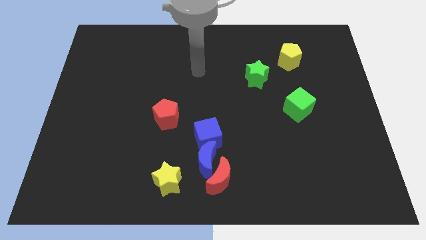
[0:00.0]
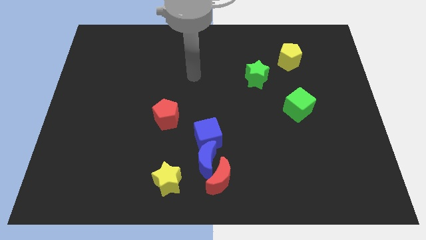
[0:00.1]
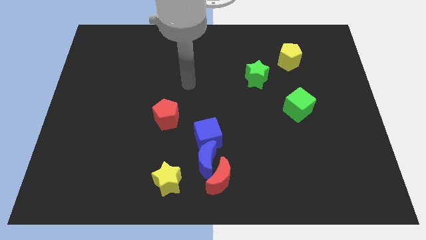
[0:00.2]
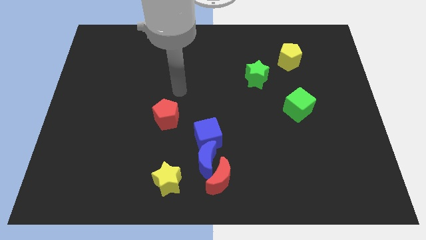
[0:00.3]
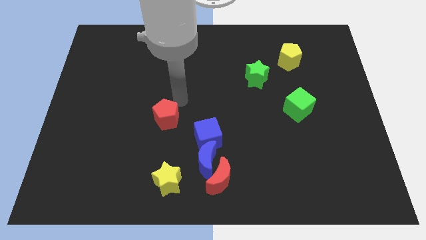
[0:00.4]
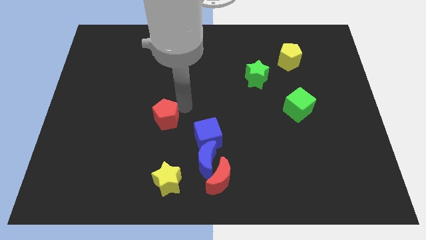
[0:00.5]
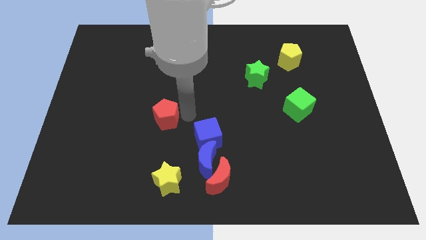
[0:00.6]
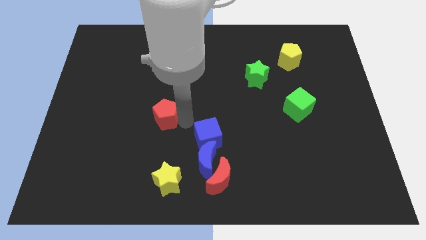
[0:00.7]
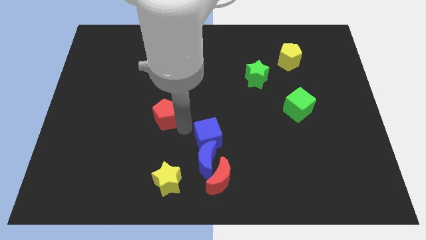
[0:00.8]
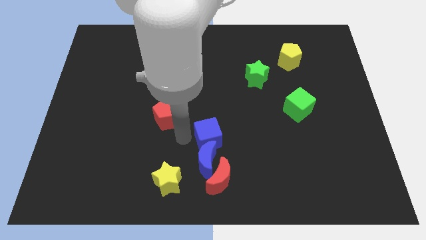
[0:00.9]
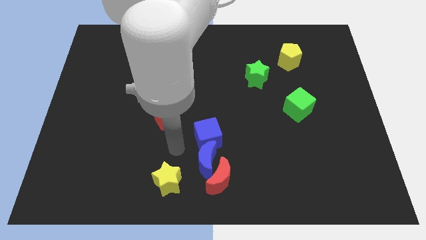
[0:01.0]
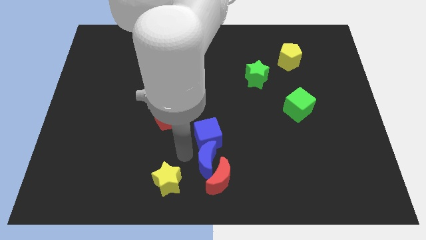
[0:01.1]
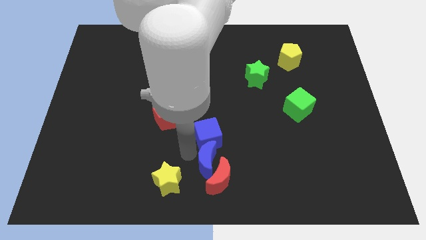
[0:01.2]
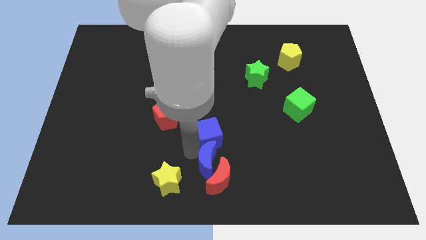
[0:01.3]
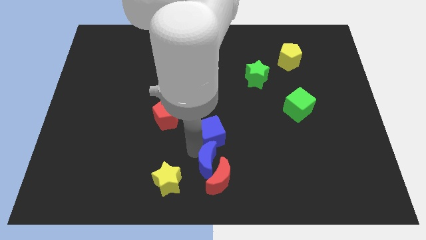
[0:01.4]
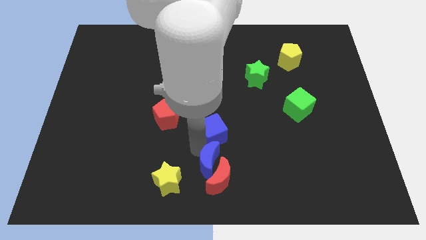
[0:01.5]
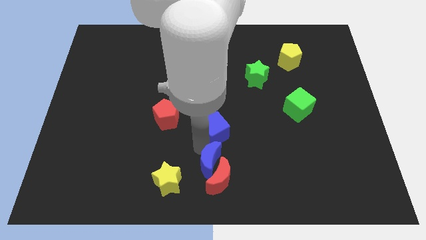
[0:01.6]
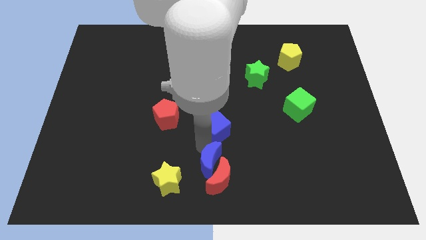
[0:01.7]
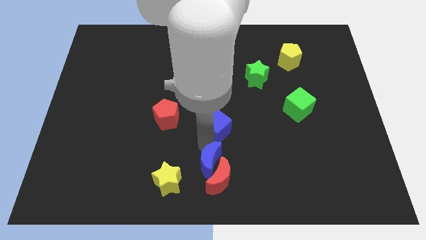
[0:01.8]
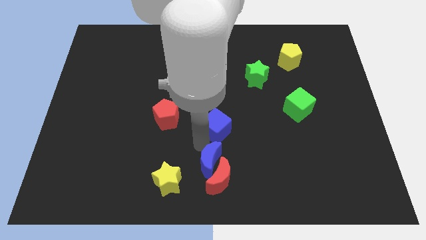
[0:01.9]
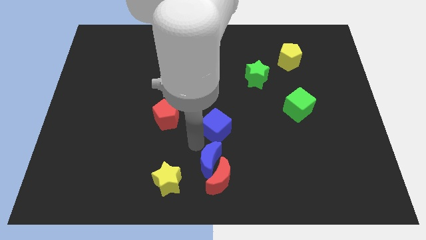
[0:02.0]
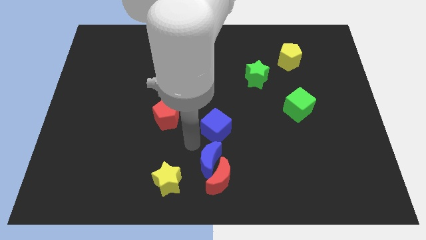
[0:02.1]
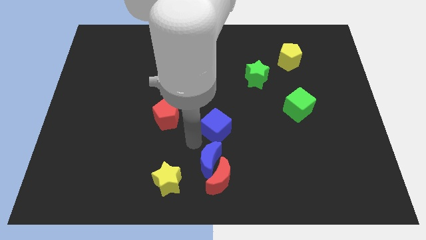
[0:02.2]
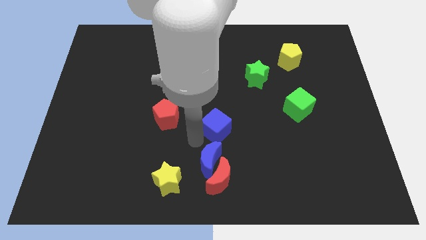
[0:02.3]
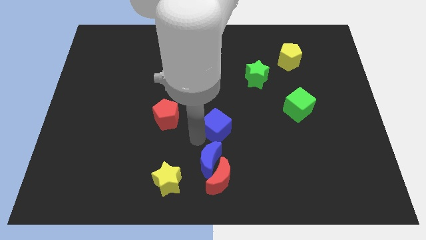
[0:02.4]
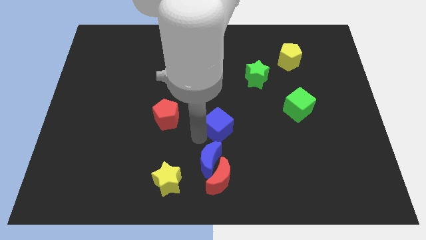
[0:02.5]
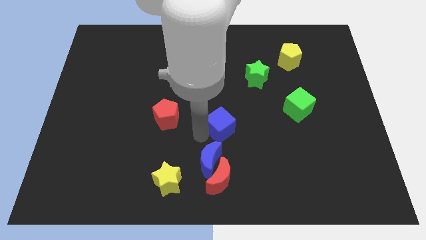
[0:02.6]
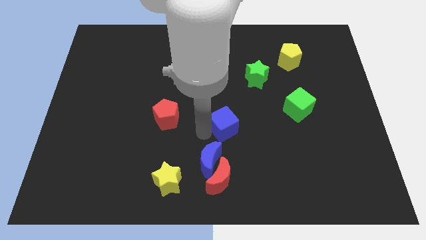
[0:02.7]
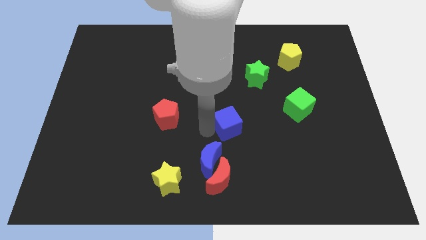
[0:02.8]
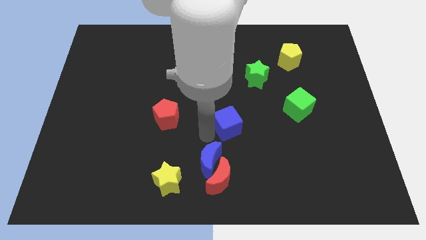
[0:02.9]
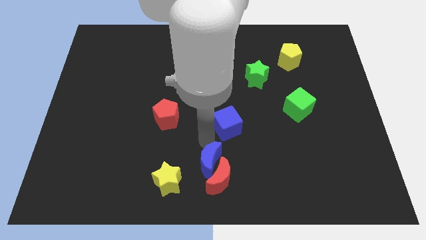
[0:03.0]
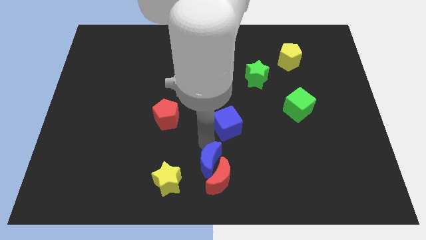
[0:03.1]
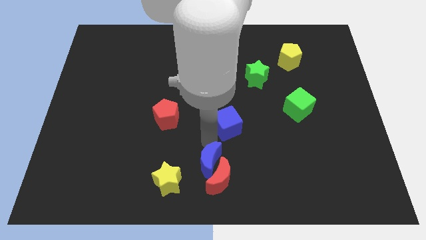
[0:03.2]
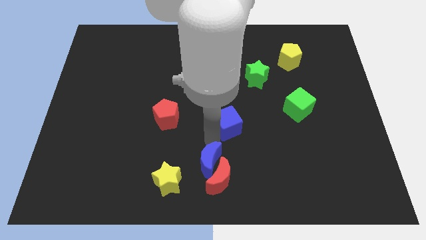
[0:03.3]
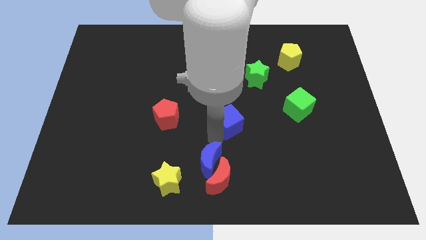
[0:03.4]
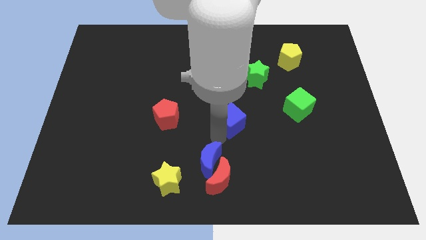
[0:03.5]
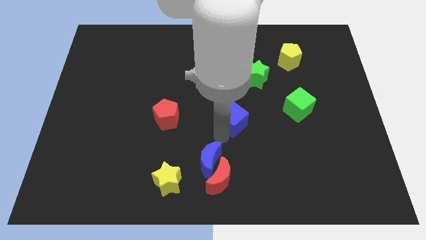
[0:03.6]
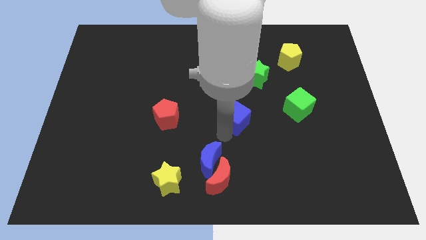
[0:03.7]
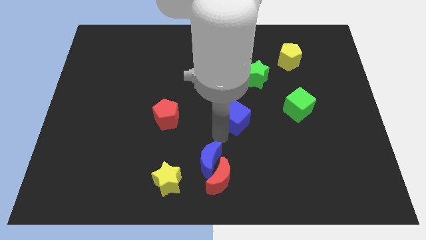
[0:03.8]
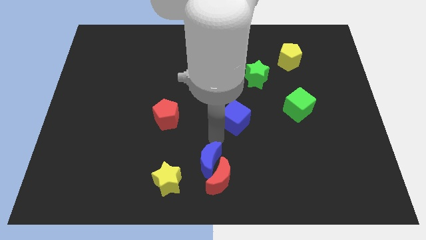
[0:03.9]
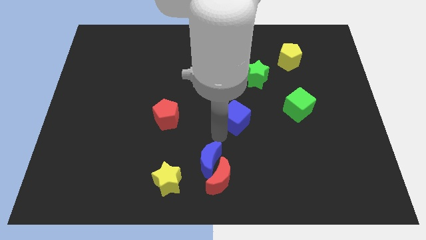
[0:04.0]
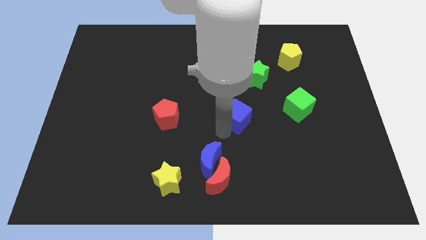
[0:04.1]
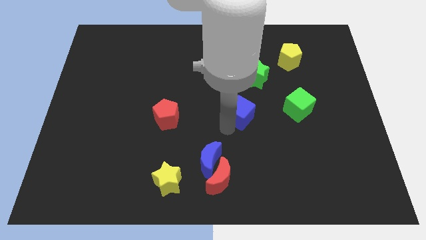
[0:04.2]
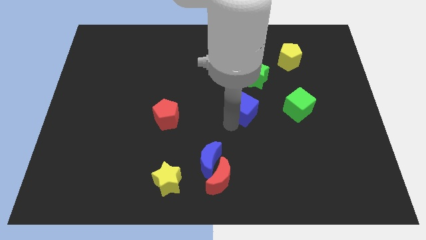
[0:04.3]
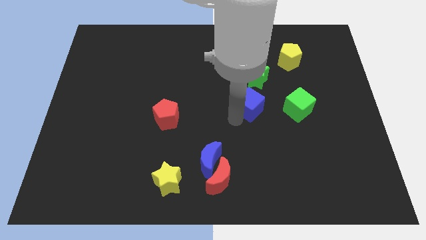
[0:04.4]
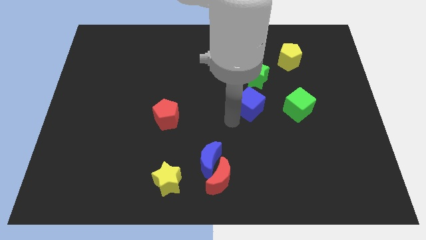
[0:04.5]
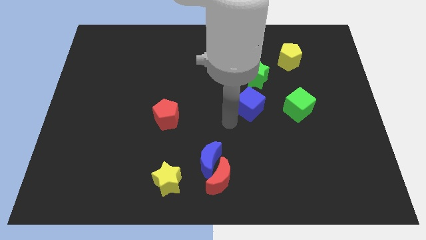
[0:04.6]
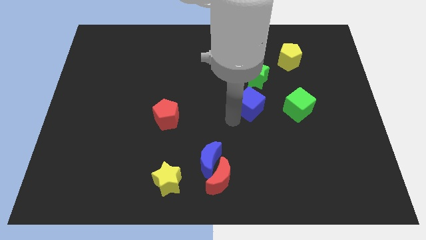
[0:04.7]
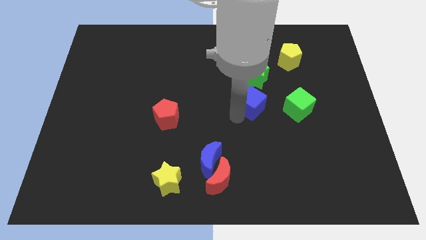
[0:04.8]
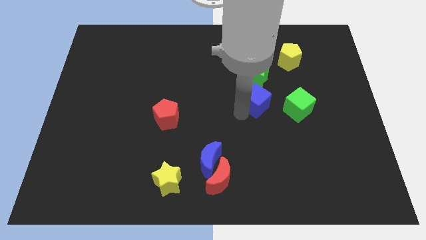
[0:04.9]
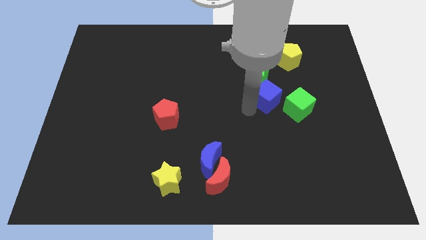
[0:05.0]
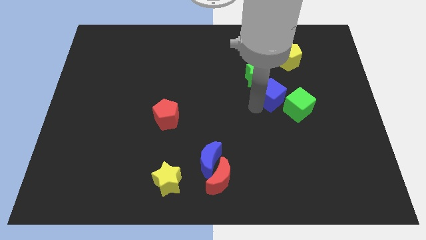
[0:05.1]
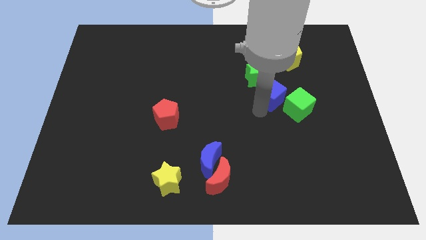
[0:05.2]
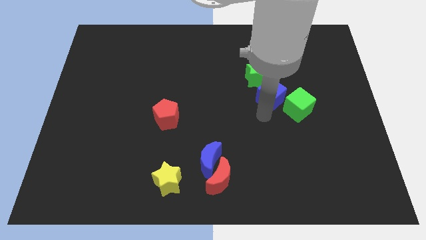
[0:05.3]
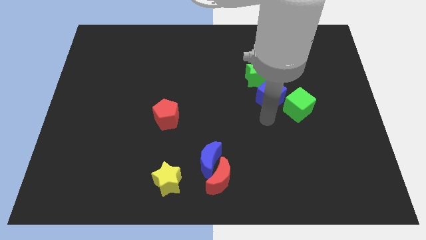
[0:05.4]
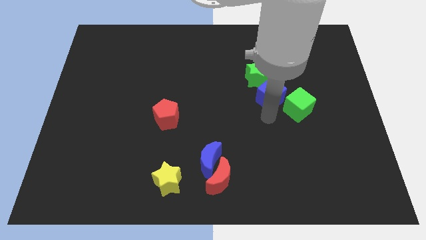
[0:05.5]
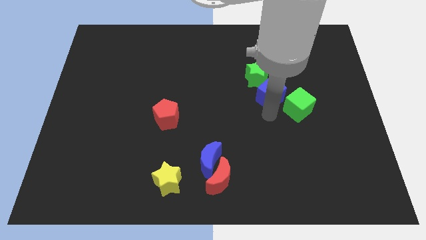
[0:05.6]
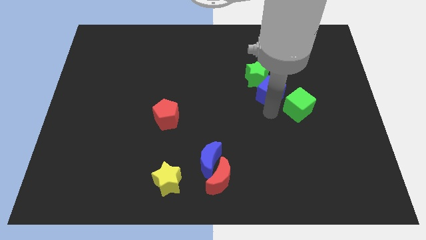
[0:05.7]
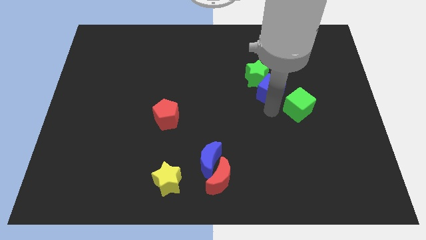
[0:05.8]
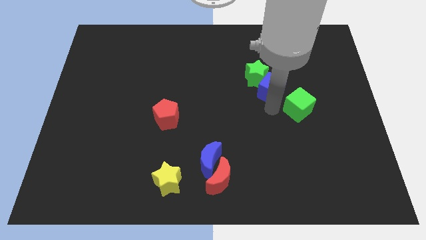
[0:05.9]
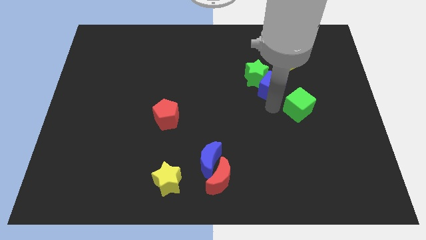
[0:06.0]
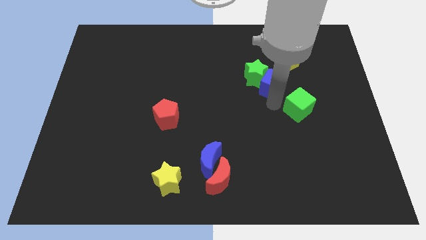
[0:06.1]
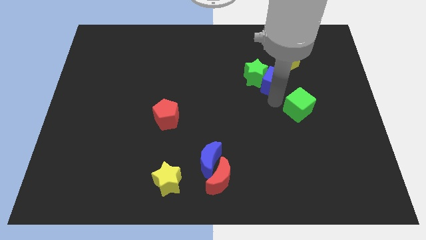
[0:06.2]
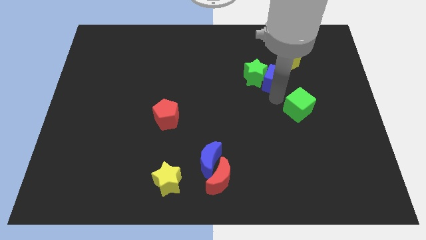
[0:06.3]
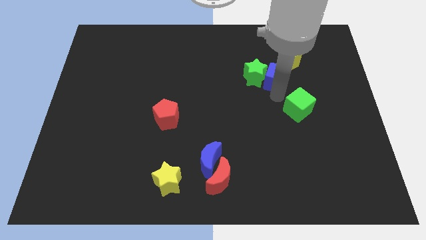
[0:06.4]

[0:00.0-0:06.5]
push the blue cube diagonally up and to the right of the green star

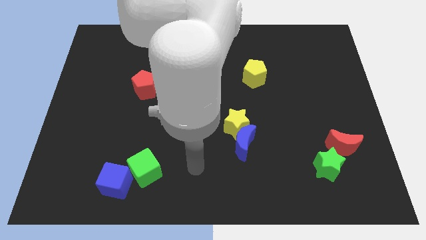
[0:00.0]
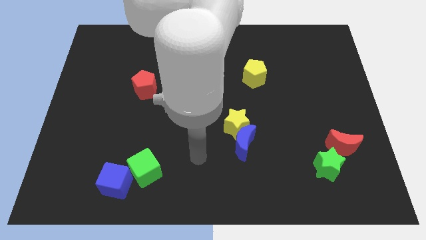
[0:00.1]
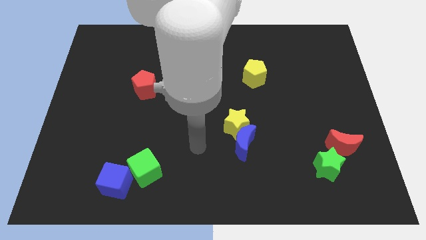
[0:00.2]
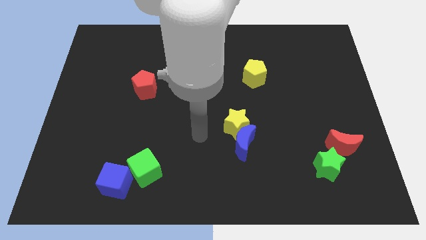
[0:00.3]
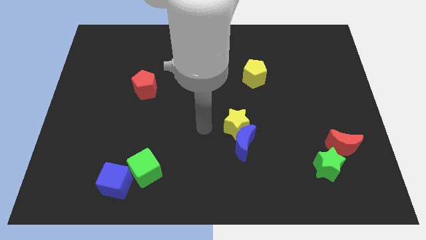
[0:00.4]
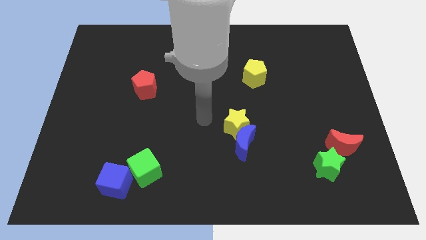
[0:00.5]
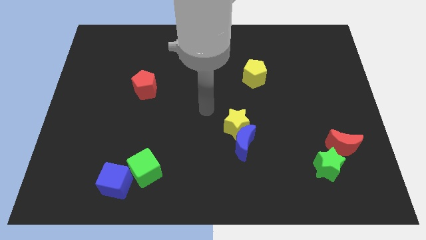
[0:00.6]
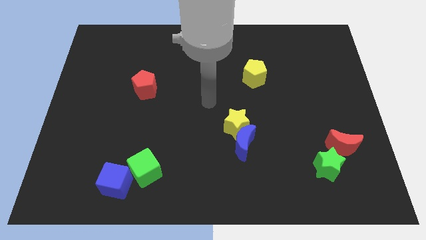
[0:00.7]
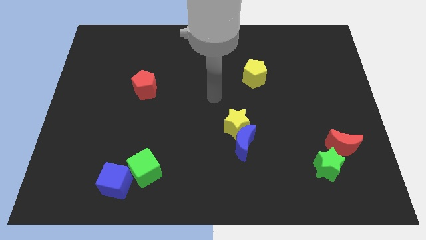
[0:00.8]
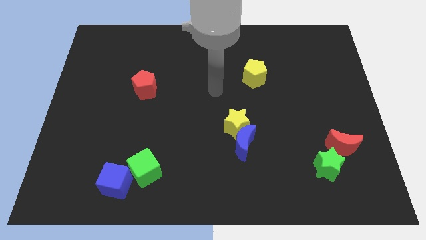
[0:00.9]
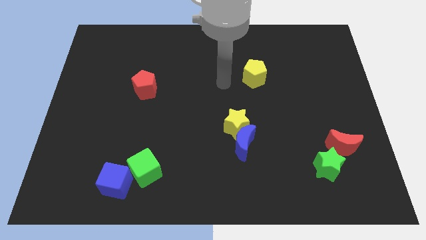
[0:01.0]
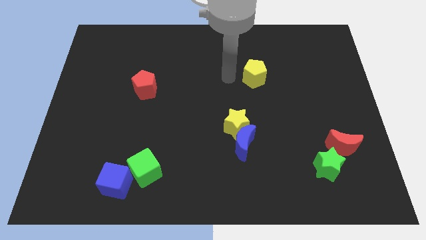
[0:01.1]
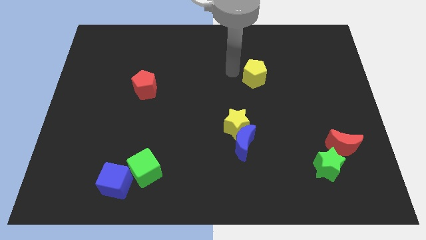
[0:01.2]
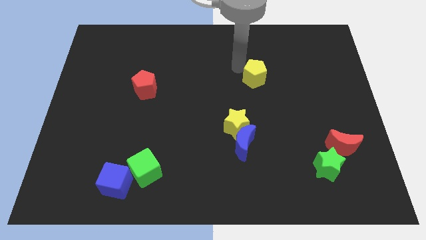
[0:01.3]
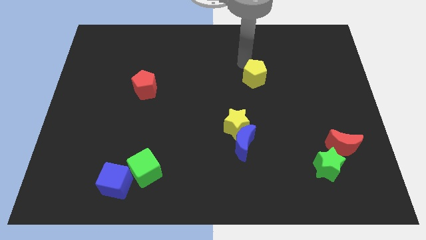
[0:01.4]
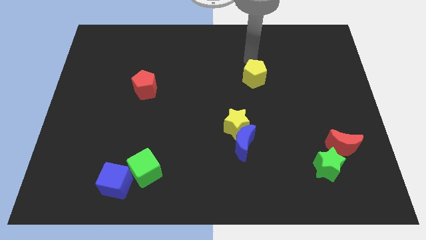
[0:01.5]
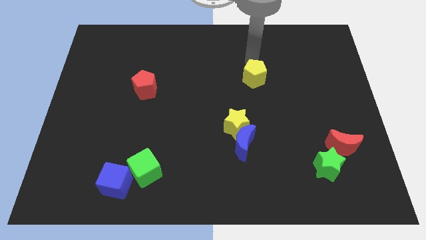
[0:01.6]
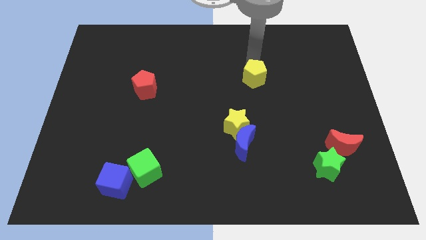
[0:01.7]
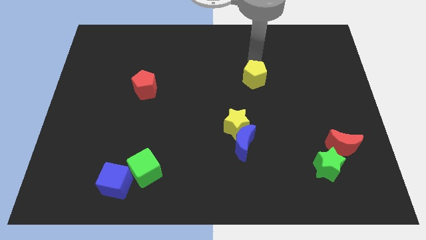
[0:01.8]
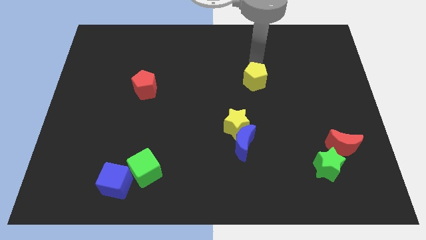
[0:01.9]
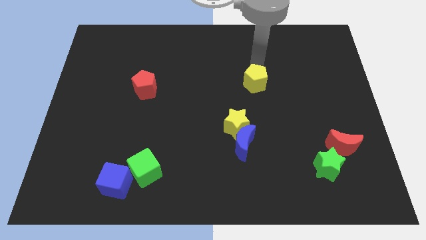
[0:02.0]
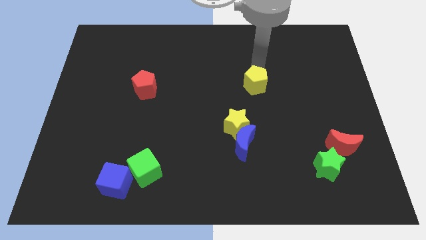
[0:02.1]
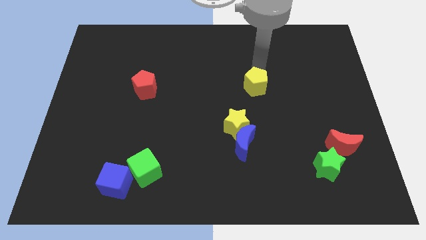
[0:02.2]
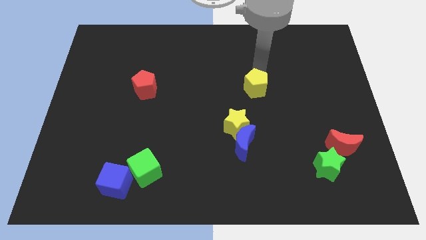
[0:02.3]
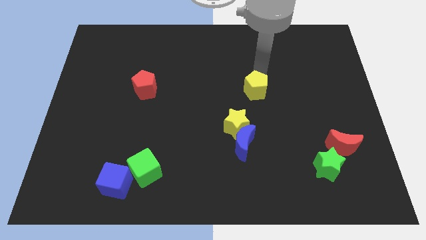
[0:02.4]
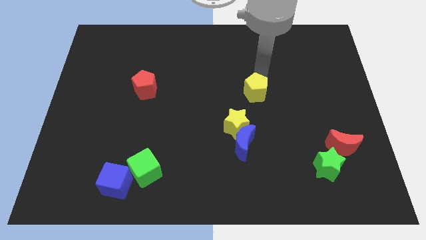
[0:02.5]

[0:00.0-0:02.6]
slide the yellow pentagon to the top right side of the yellow star
